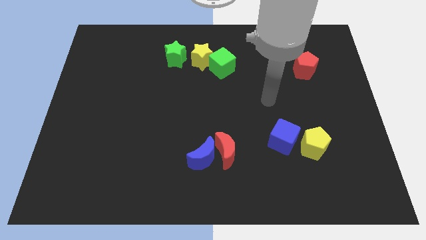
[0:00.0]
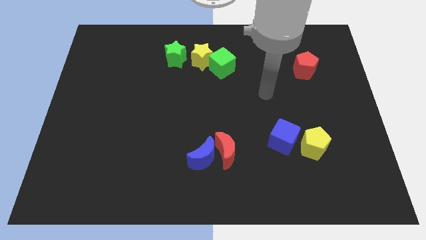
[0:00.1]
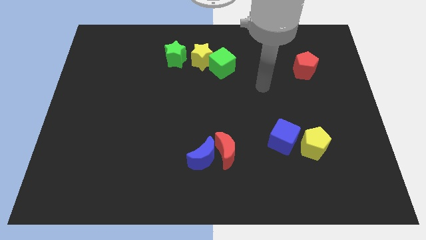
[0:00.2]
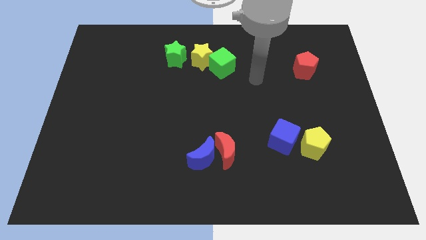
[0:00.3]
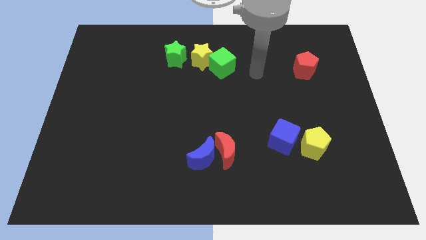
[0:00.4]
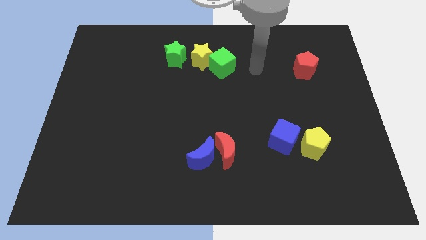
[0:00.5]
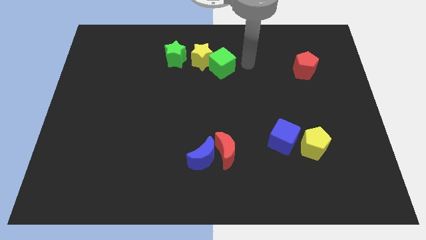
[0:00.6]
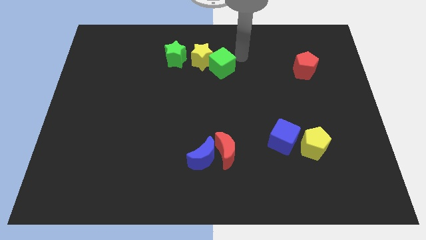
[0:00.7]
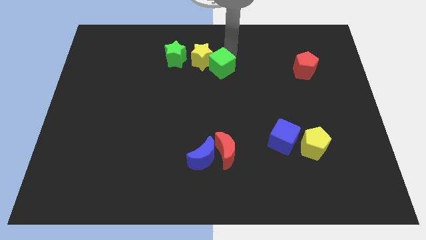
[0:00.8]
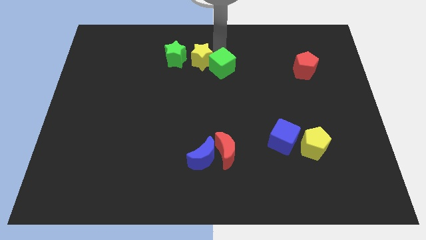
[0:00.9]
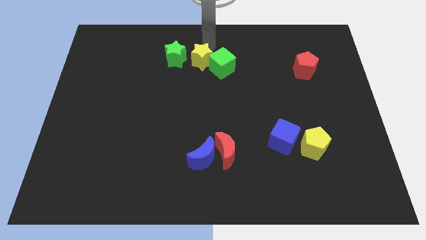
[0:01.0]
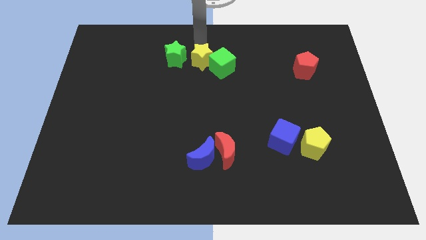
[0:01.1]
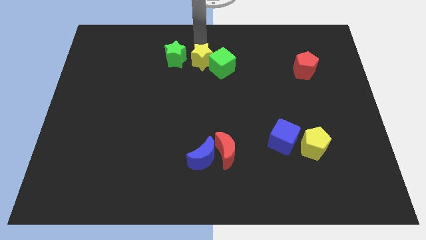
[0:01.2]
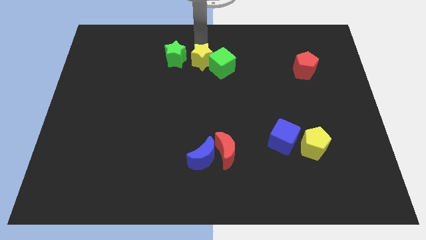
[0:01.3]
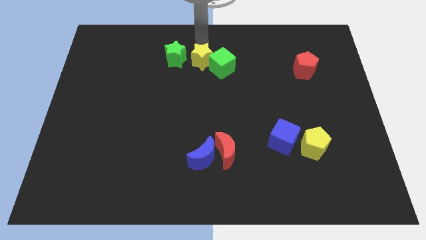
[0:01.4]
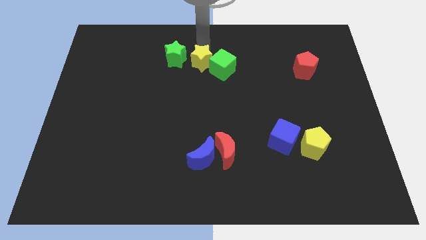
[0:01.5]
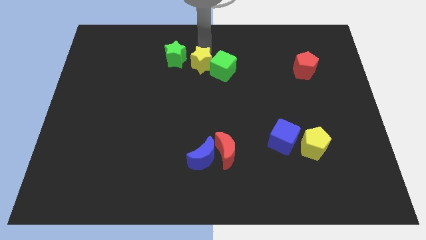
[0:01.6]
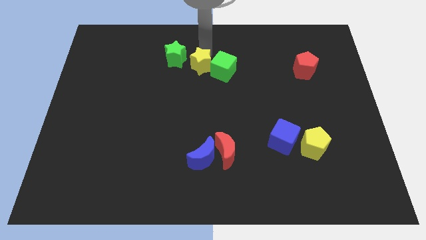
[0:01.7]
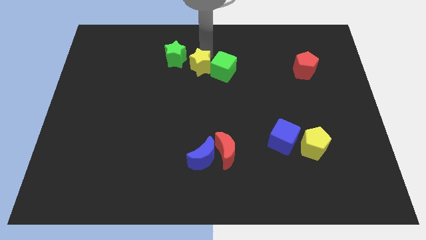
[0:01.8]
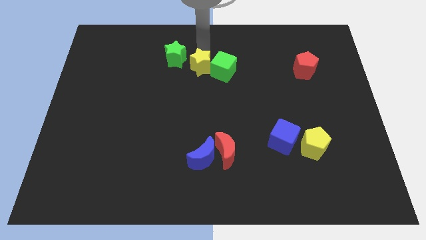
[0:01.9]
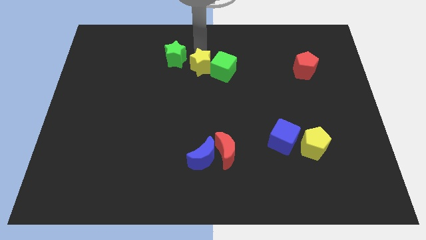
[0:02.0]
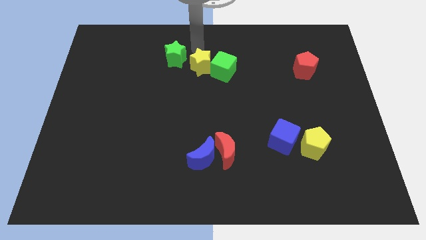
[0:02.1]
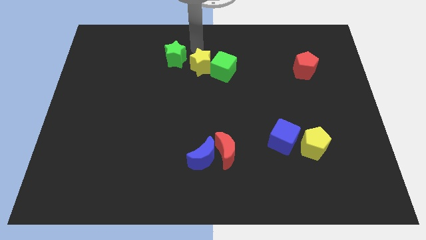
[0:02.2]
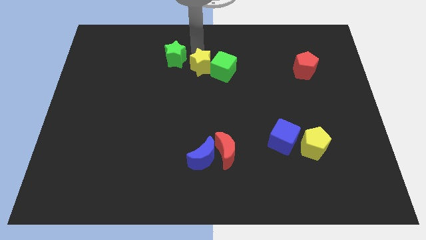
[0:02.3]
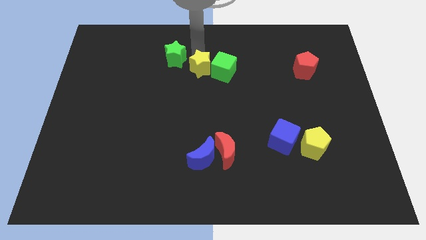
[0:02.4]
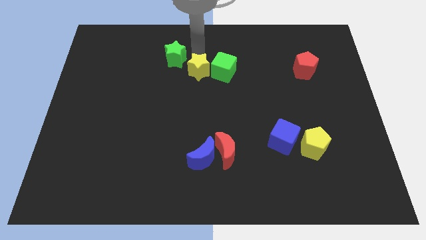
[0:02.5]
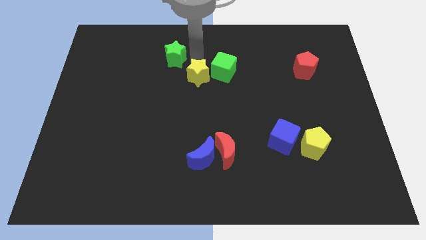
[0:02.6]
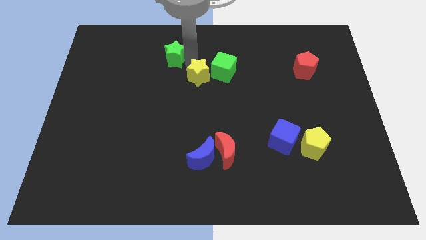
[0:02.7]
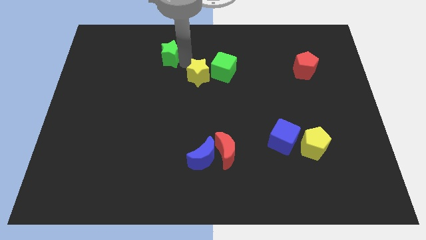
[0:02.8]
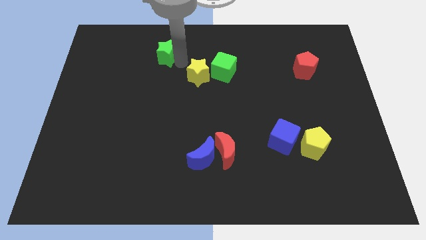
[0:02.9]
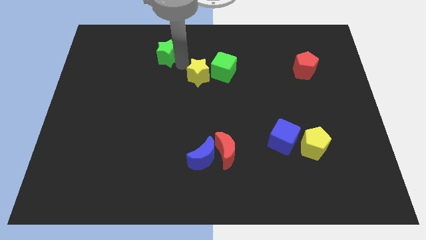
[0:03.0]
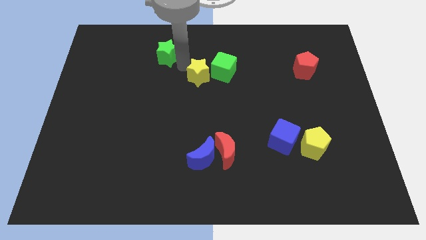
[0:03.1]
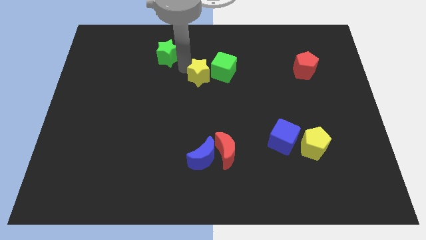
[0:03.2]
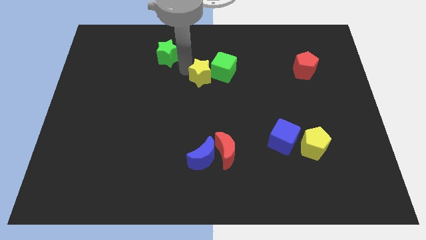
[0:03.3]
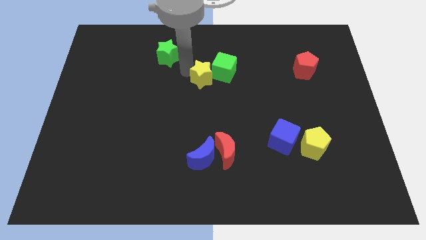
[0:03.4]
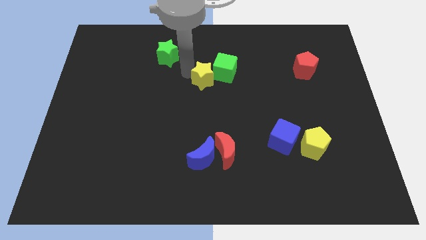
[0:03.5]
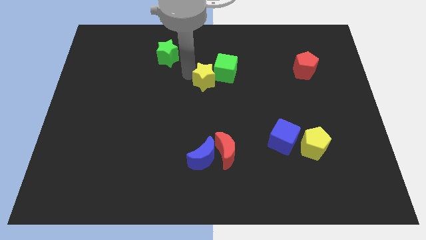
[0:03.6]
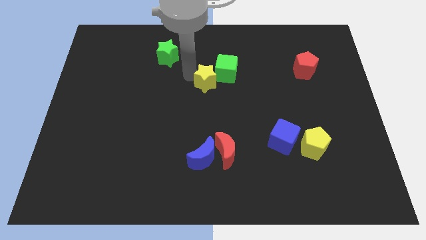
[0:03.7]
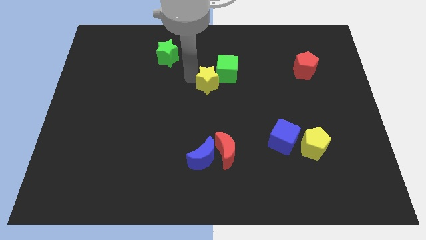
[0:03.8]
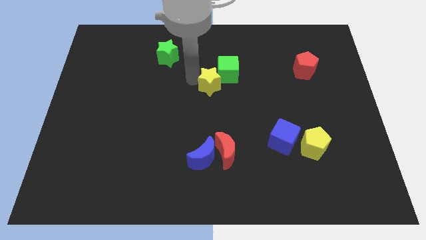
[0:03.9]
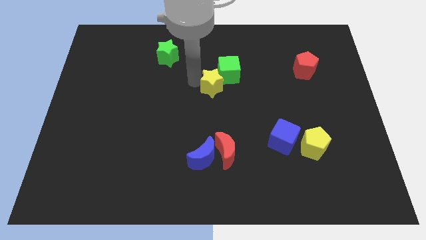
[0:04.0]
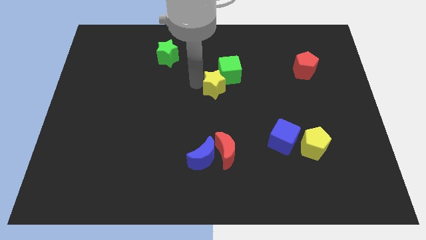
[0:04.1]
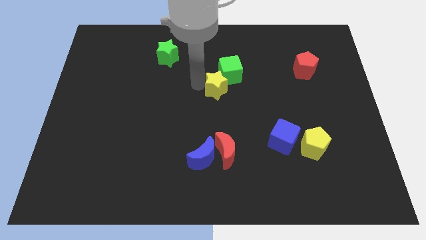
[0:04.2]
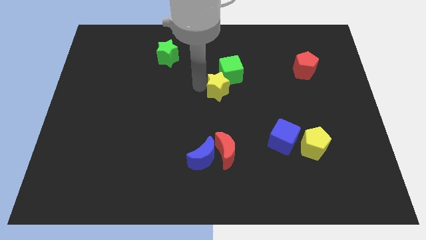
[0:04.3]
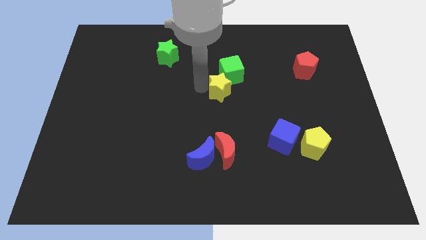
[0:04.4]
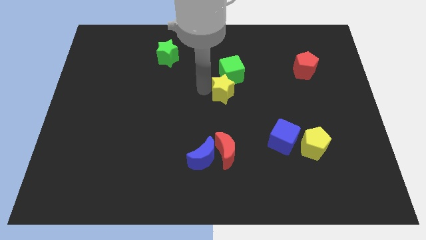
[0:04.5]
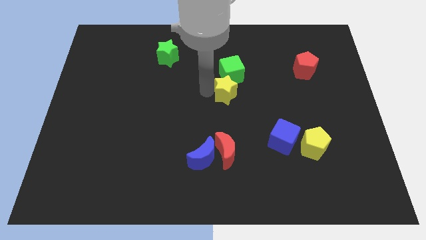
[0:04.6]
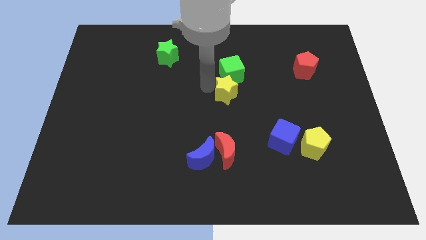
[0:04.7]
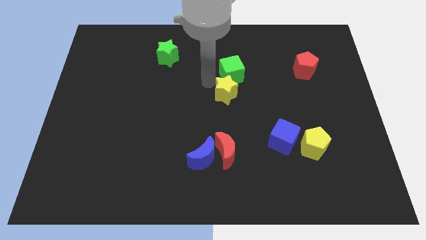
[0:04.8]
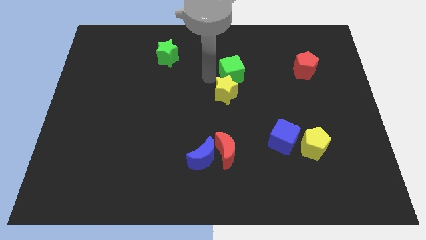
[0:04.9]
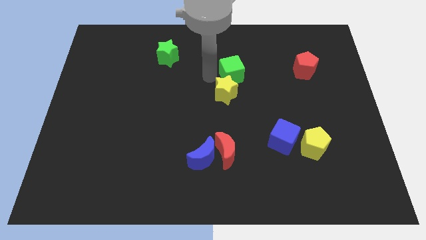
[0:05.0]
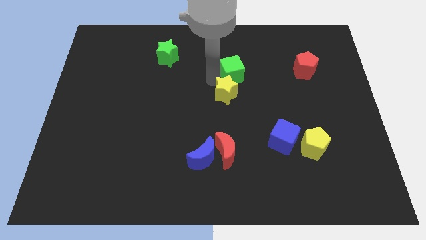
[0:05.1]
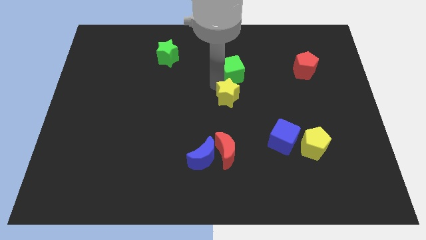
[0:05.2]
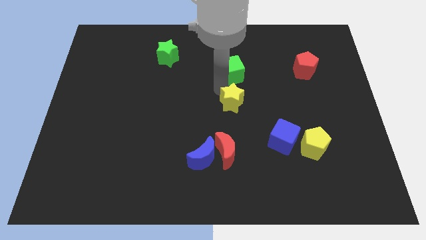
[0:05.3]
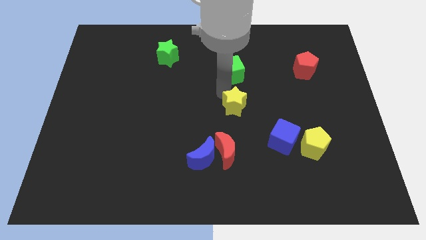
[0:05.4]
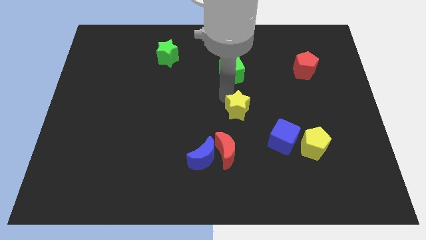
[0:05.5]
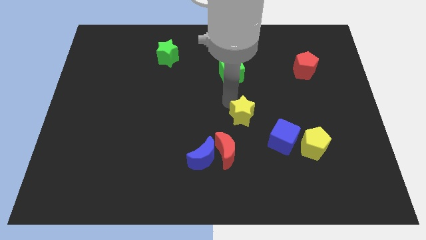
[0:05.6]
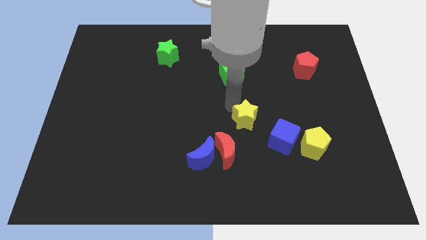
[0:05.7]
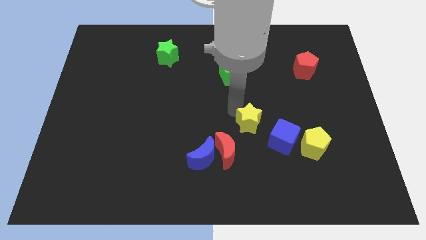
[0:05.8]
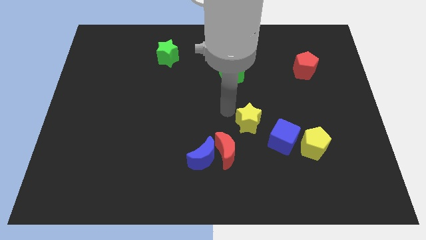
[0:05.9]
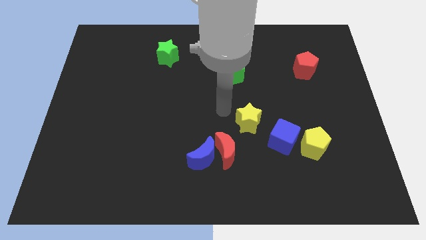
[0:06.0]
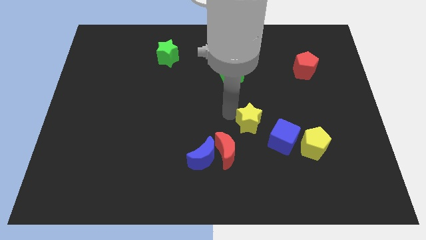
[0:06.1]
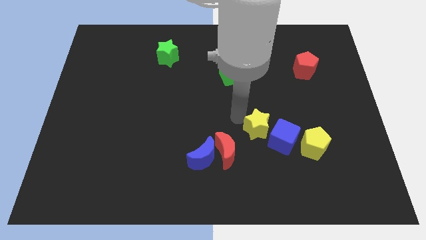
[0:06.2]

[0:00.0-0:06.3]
move the yellow star next to the blue cube

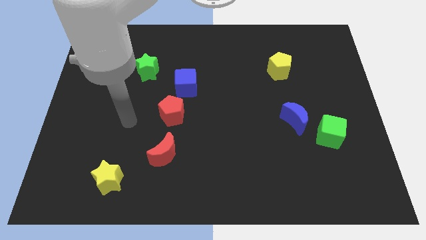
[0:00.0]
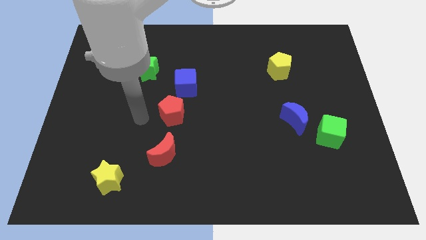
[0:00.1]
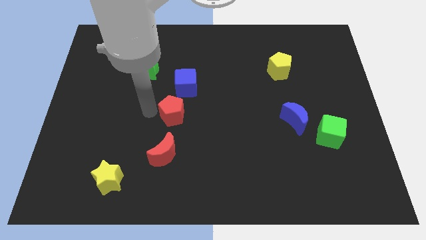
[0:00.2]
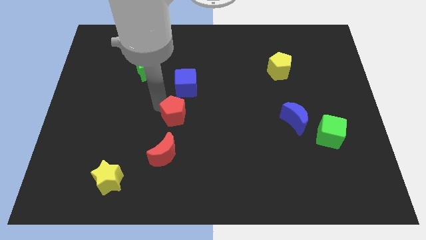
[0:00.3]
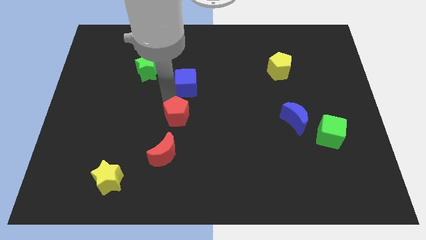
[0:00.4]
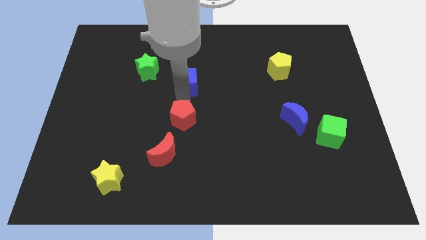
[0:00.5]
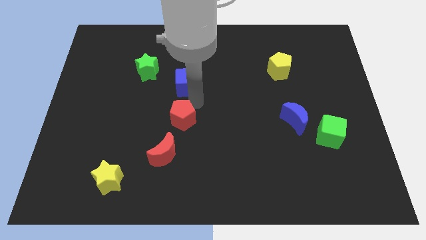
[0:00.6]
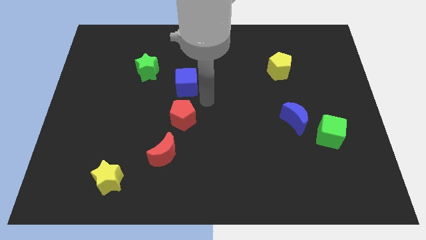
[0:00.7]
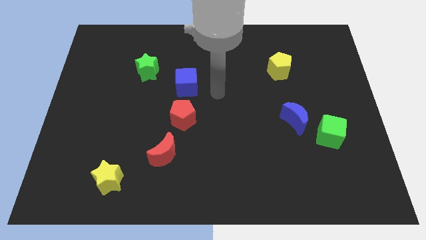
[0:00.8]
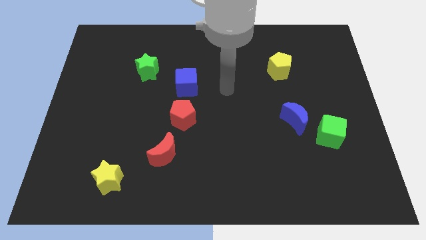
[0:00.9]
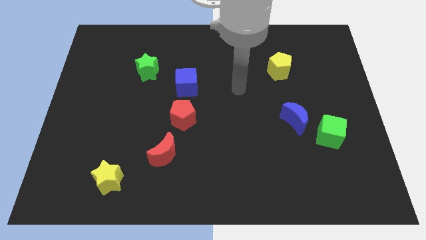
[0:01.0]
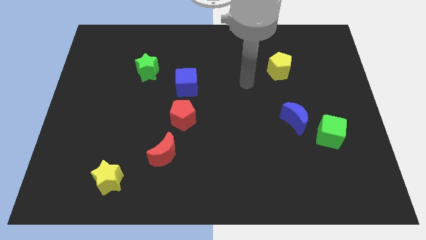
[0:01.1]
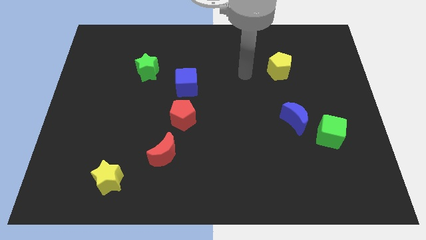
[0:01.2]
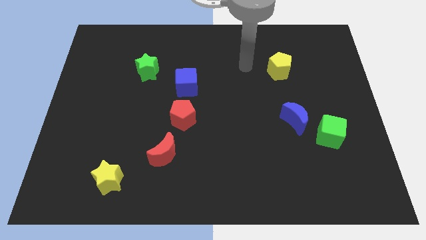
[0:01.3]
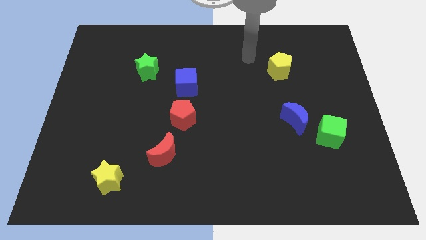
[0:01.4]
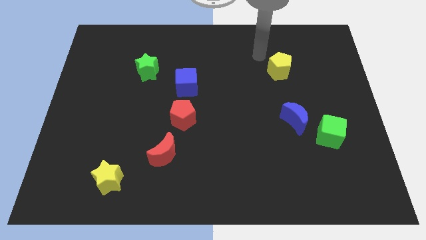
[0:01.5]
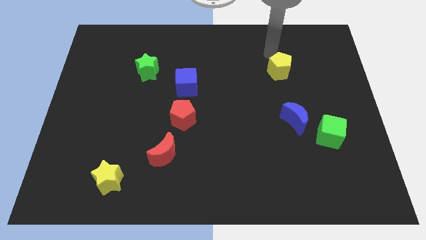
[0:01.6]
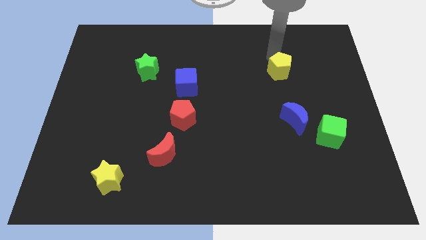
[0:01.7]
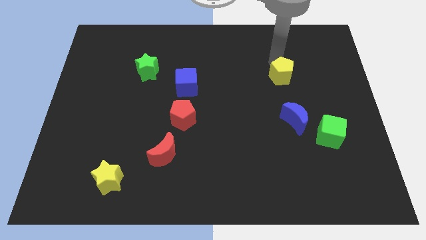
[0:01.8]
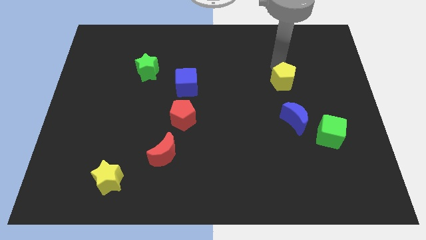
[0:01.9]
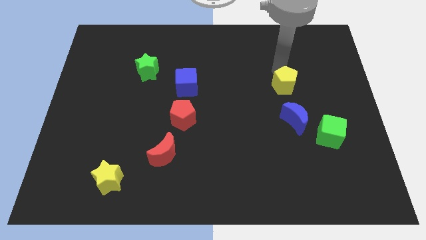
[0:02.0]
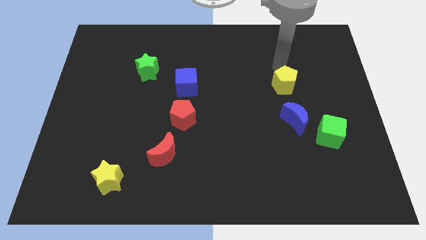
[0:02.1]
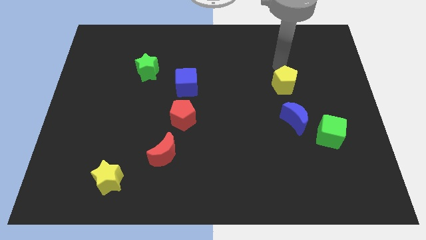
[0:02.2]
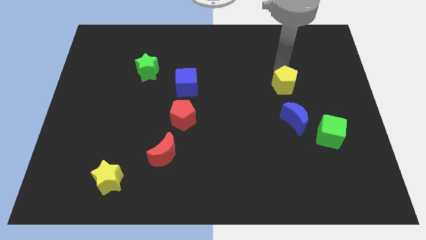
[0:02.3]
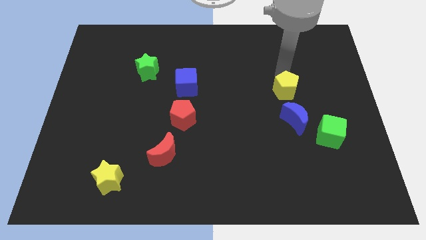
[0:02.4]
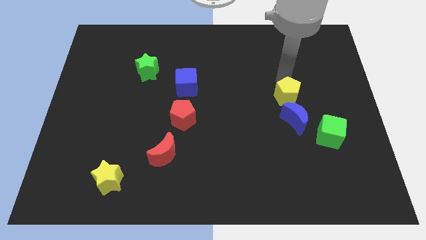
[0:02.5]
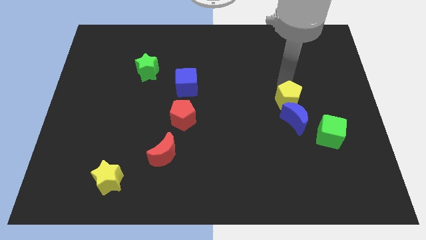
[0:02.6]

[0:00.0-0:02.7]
slide the yellow pentagon next to the blue moon
